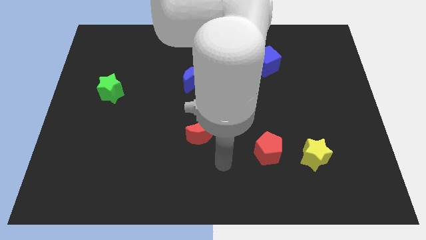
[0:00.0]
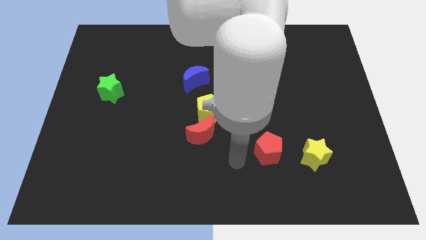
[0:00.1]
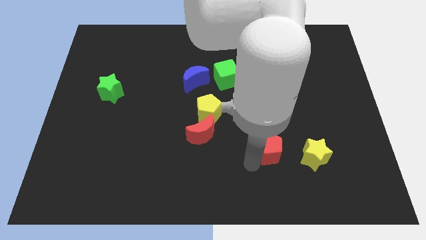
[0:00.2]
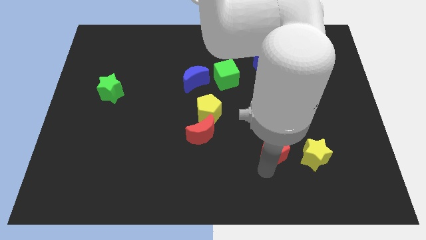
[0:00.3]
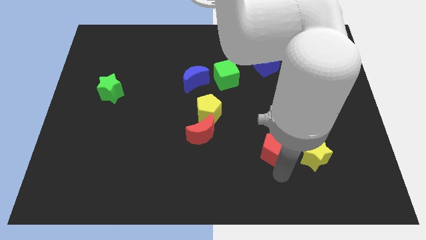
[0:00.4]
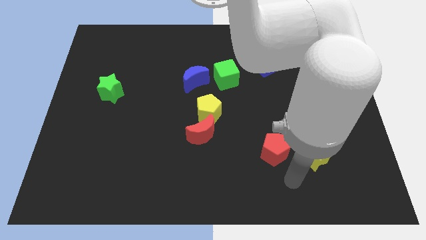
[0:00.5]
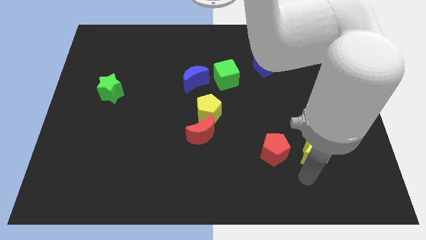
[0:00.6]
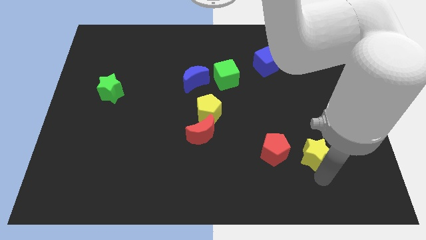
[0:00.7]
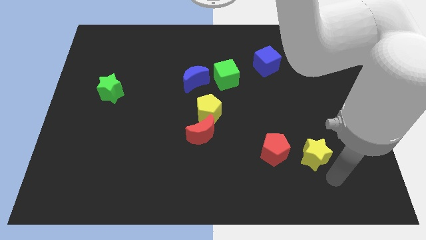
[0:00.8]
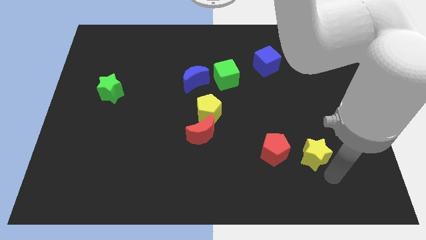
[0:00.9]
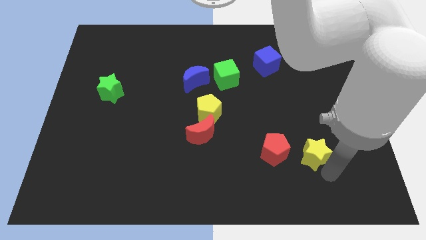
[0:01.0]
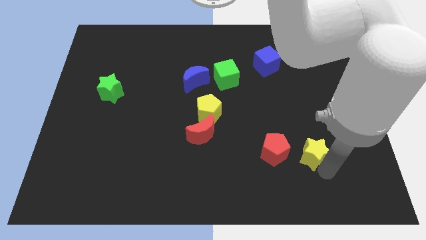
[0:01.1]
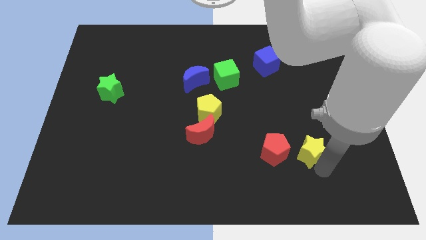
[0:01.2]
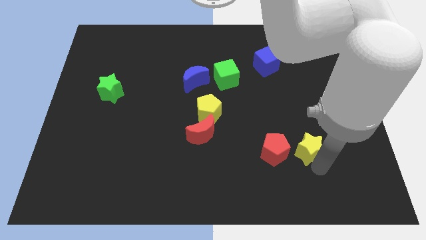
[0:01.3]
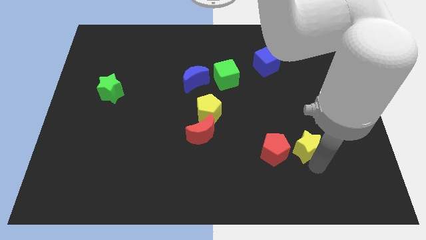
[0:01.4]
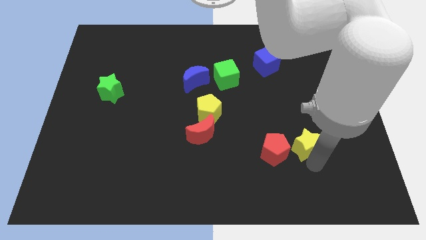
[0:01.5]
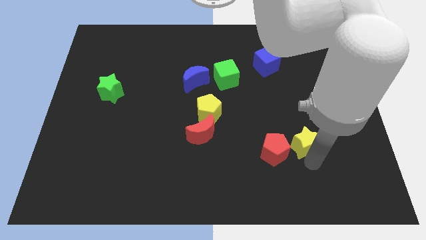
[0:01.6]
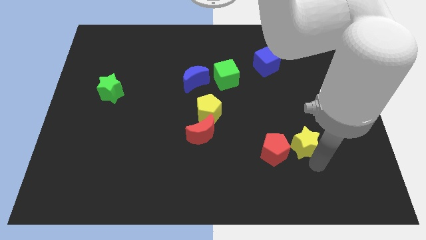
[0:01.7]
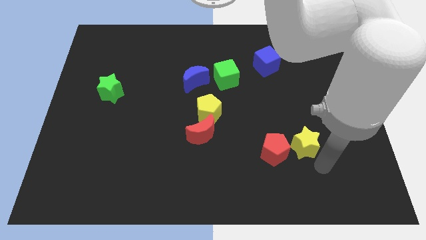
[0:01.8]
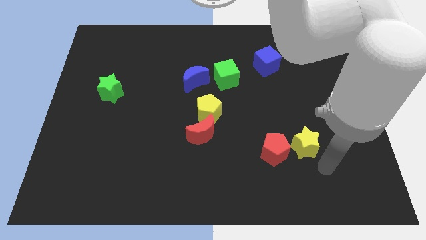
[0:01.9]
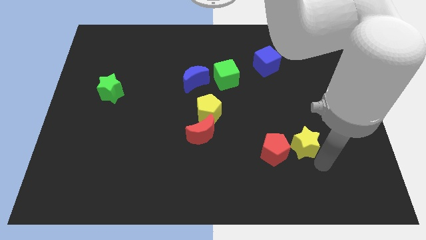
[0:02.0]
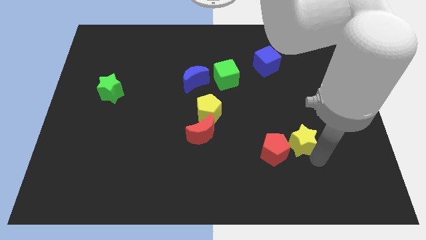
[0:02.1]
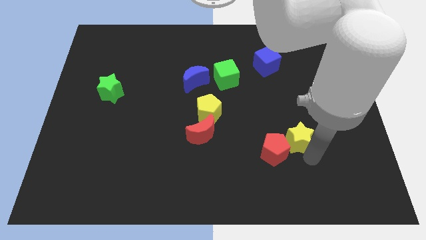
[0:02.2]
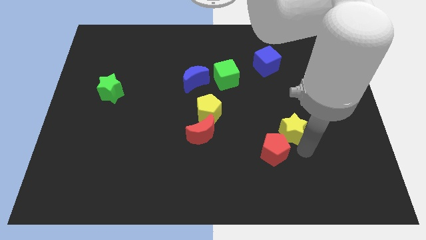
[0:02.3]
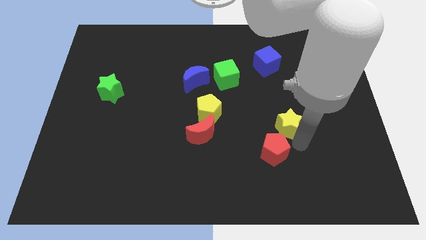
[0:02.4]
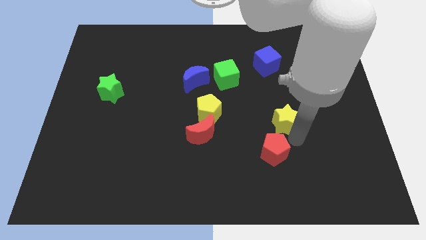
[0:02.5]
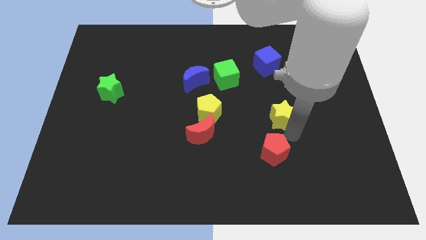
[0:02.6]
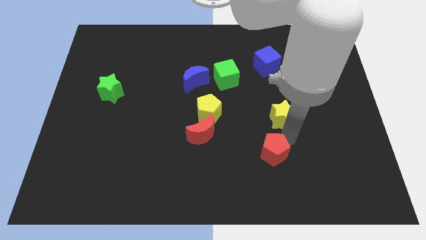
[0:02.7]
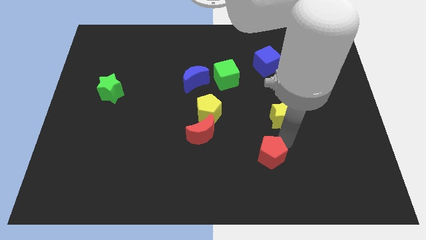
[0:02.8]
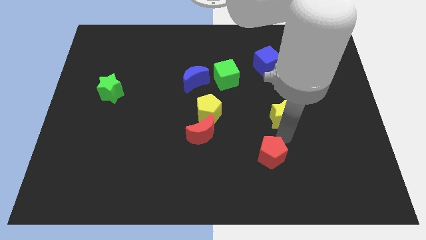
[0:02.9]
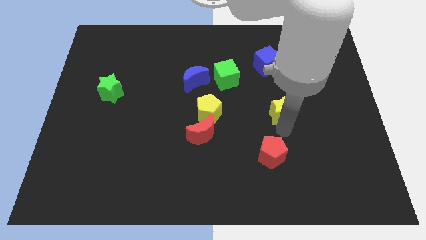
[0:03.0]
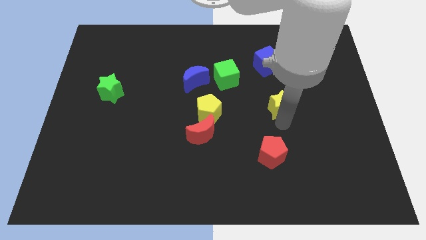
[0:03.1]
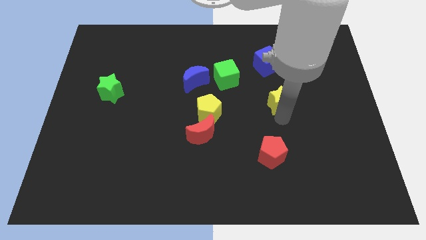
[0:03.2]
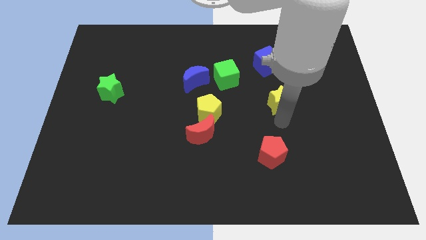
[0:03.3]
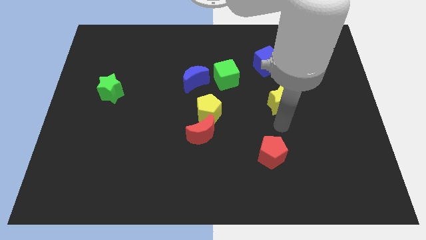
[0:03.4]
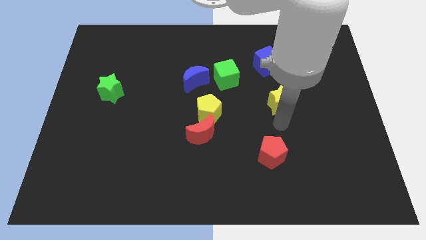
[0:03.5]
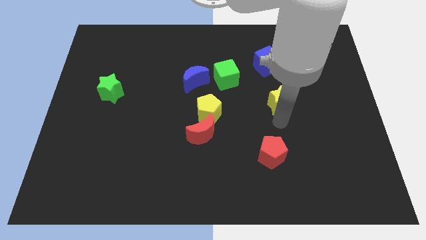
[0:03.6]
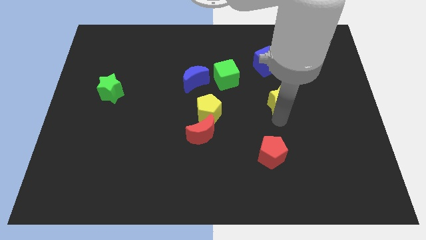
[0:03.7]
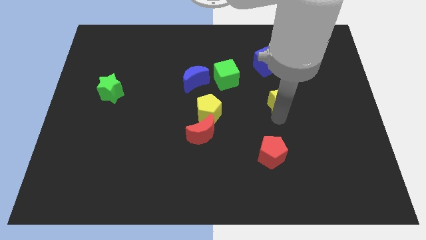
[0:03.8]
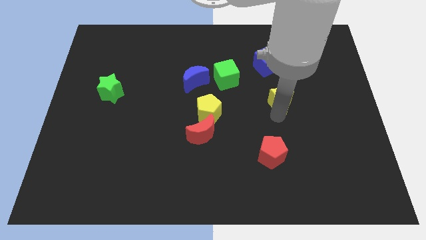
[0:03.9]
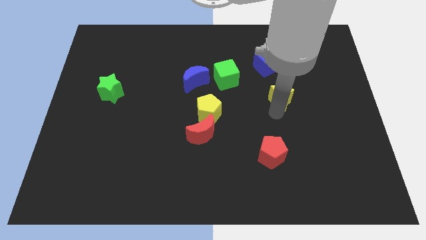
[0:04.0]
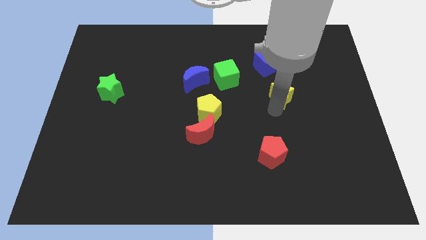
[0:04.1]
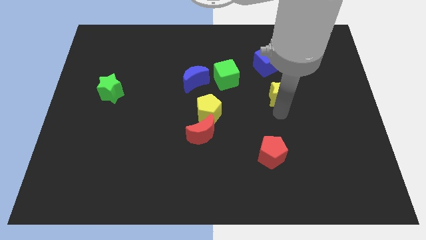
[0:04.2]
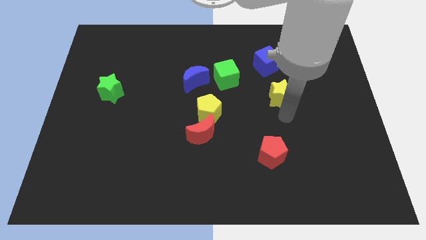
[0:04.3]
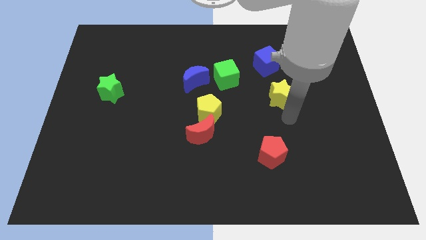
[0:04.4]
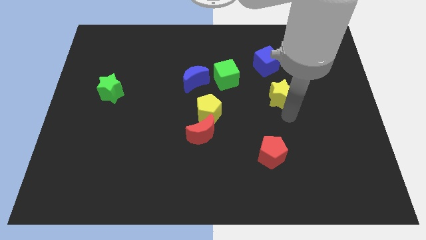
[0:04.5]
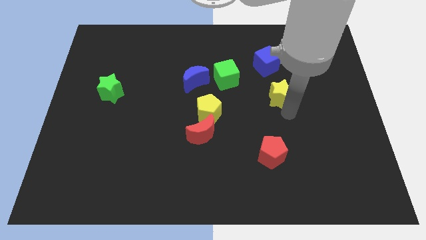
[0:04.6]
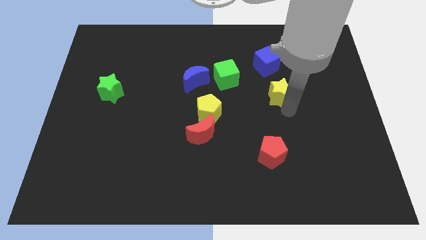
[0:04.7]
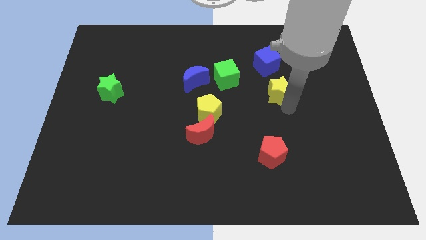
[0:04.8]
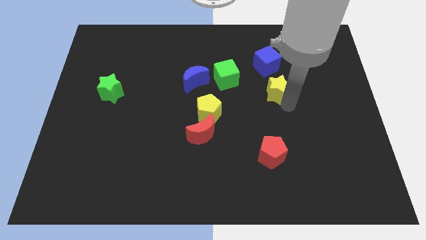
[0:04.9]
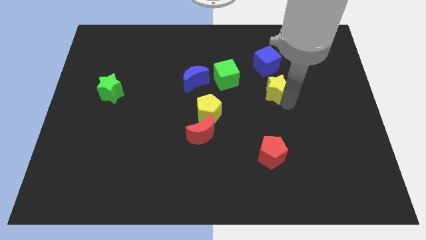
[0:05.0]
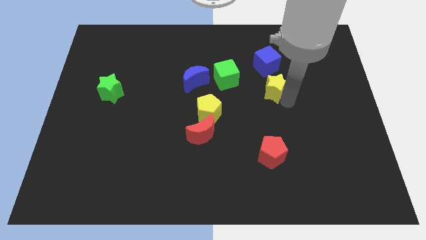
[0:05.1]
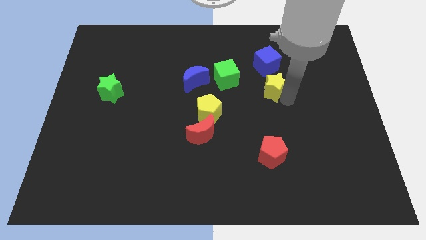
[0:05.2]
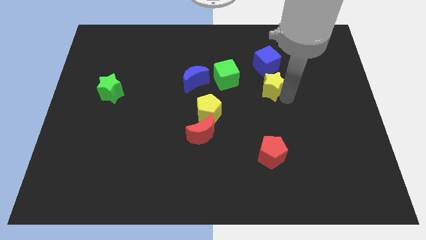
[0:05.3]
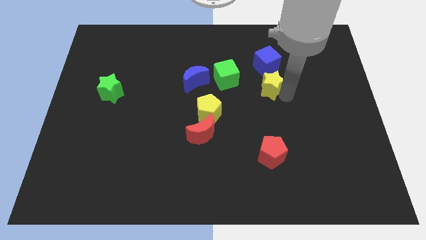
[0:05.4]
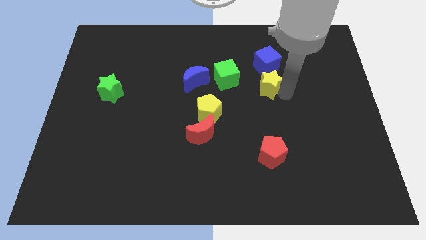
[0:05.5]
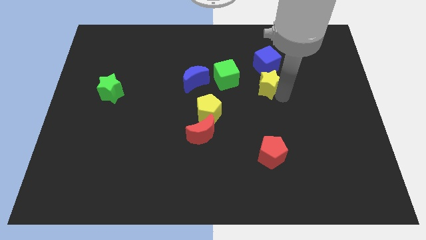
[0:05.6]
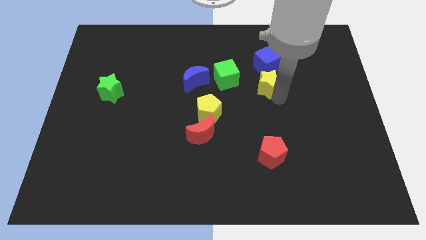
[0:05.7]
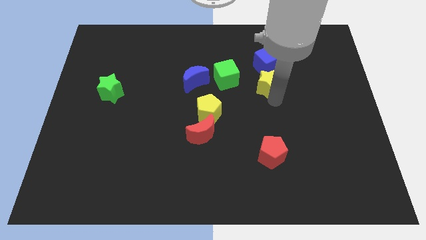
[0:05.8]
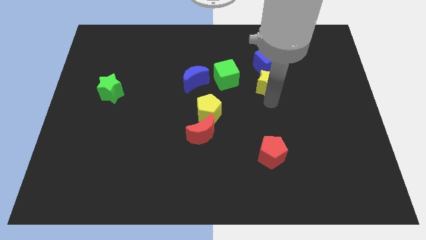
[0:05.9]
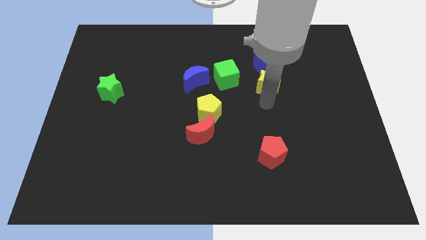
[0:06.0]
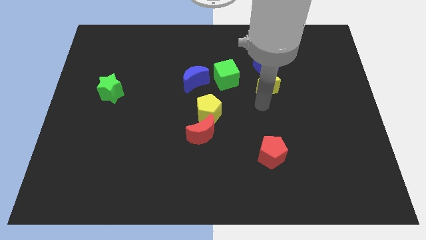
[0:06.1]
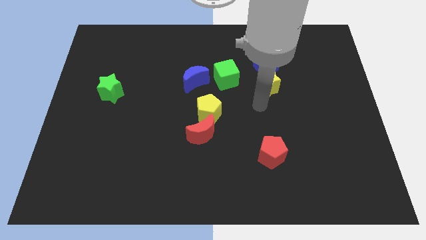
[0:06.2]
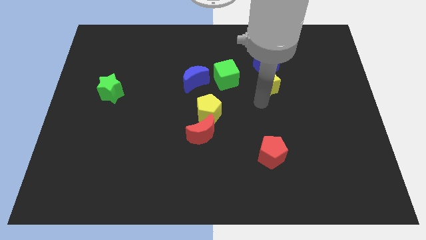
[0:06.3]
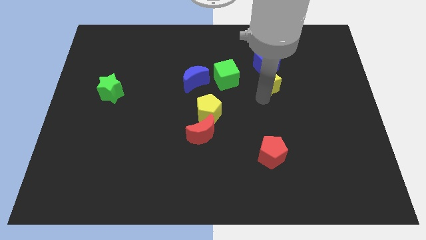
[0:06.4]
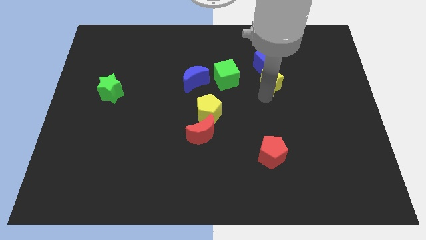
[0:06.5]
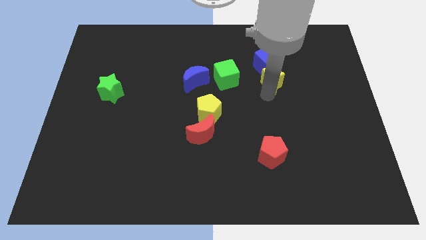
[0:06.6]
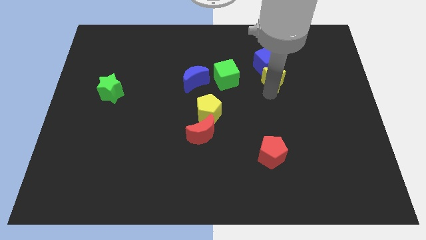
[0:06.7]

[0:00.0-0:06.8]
put the yellow star to the blue cube
